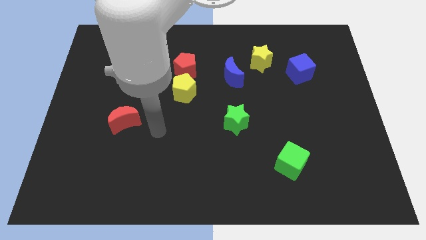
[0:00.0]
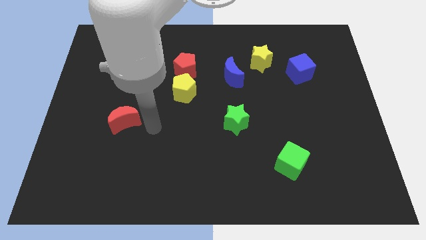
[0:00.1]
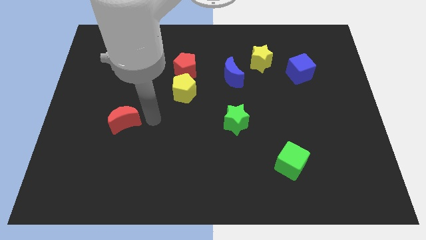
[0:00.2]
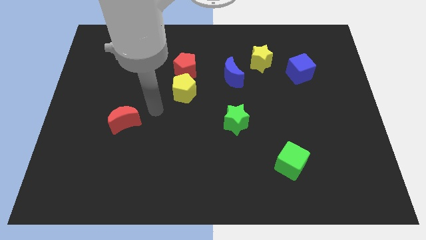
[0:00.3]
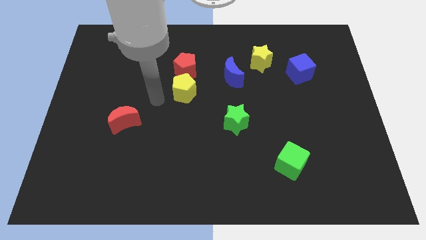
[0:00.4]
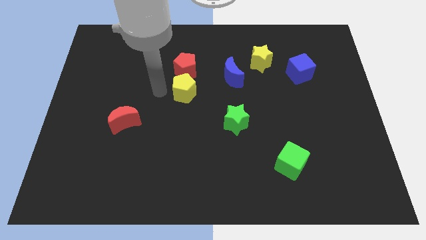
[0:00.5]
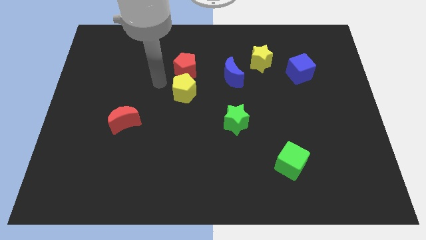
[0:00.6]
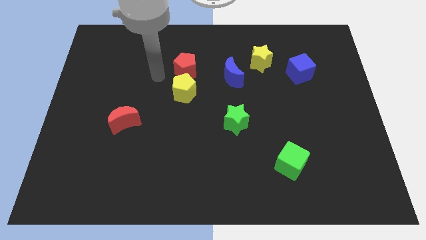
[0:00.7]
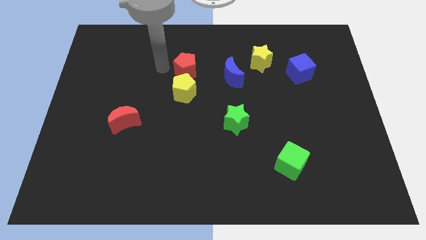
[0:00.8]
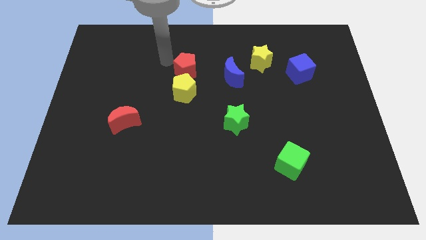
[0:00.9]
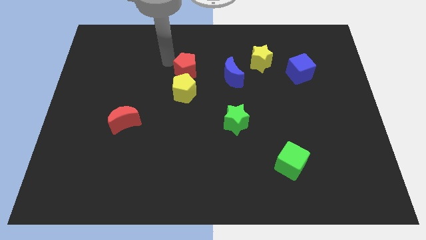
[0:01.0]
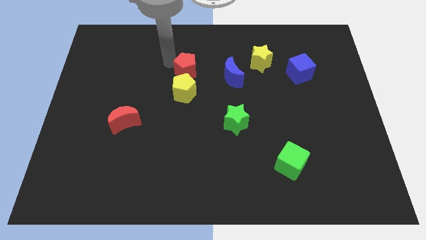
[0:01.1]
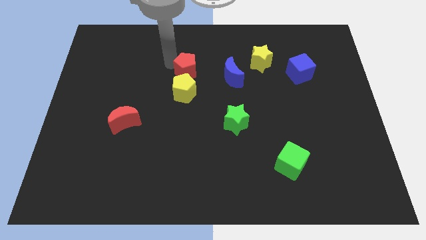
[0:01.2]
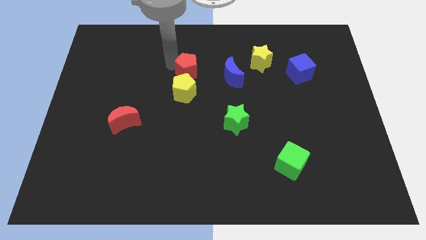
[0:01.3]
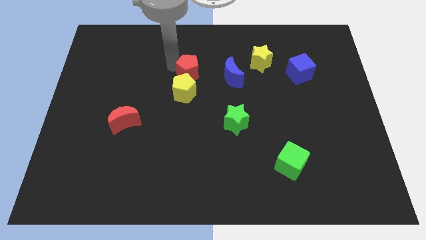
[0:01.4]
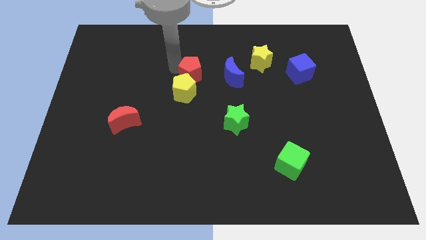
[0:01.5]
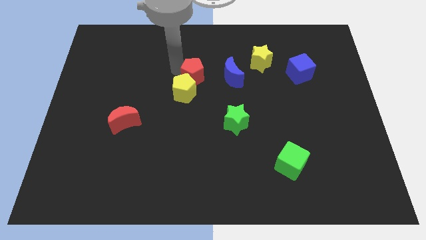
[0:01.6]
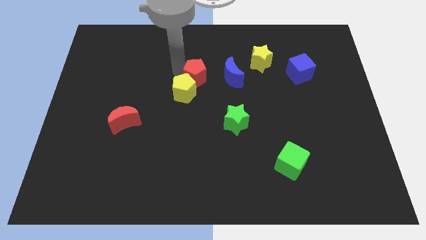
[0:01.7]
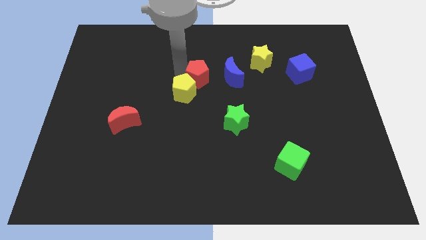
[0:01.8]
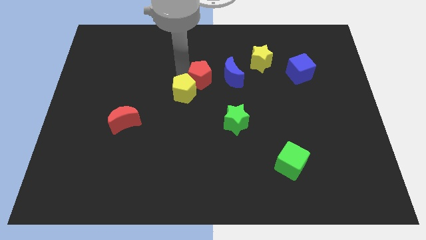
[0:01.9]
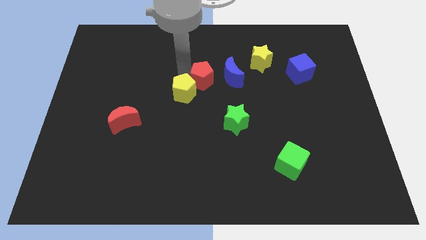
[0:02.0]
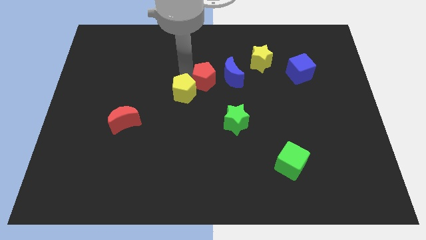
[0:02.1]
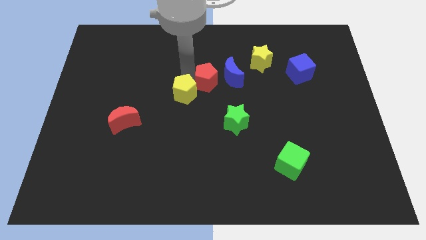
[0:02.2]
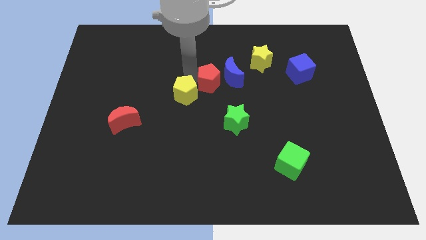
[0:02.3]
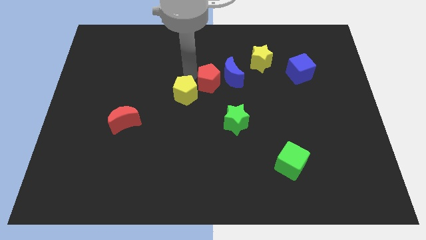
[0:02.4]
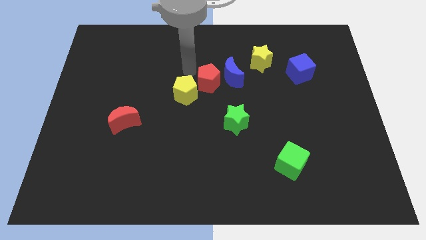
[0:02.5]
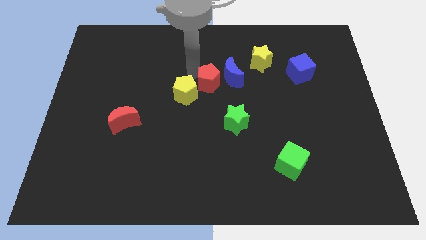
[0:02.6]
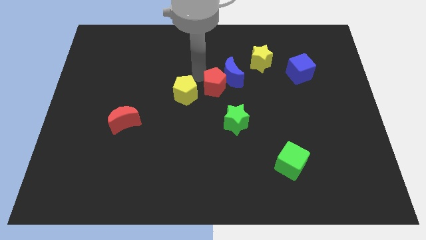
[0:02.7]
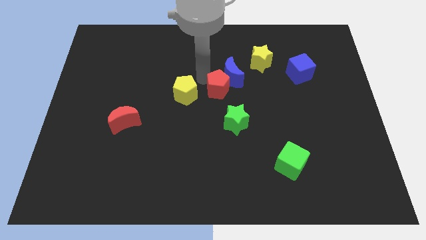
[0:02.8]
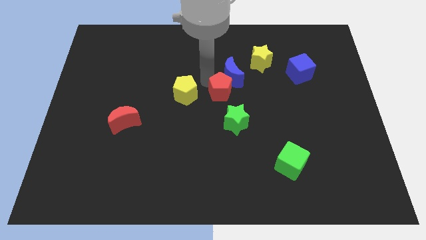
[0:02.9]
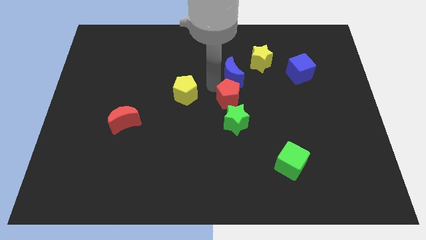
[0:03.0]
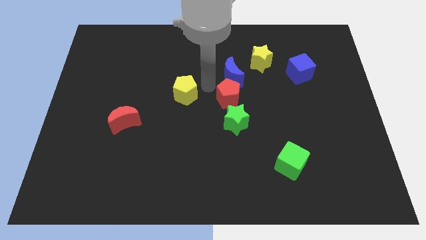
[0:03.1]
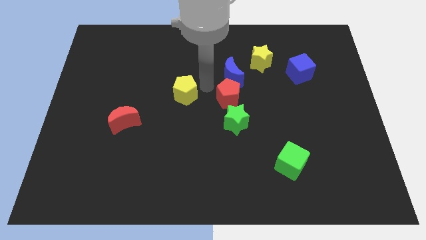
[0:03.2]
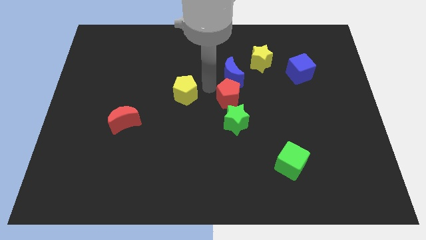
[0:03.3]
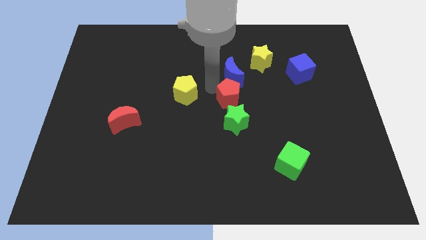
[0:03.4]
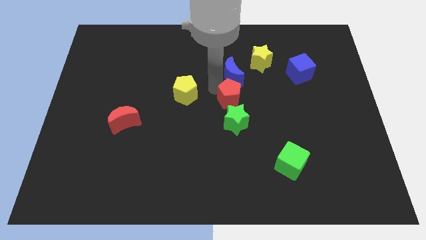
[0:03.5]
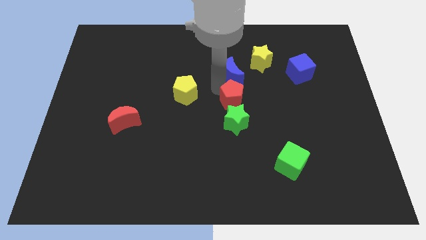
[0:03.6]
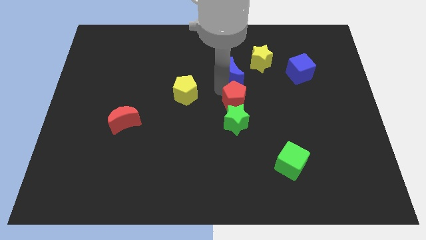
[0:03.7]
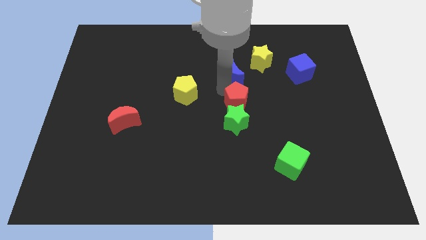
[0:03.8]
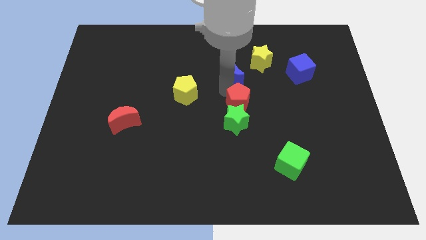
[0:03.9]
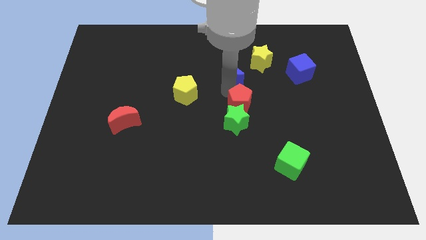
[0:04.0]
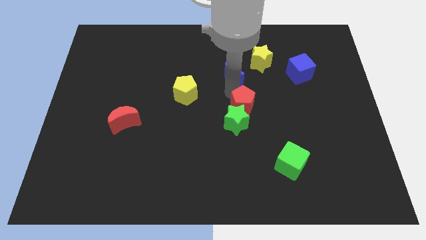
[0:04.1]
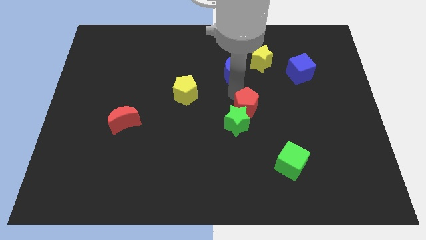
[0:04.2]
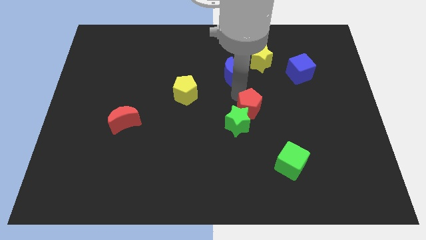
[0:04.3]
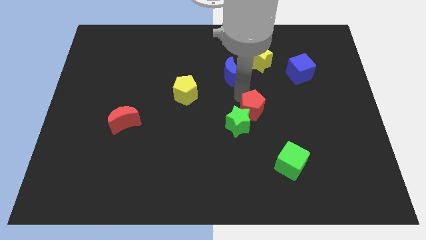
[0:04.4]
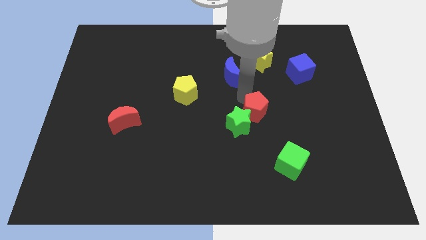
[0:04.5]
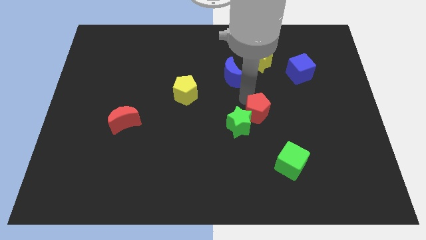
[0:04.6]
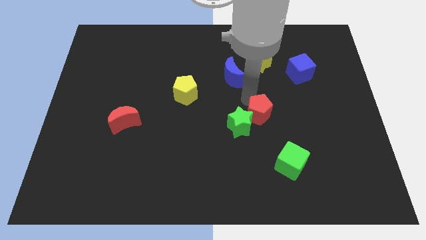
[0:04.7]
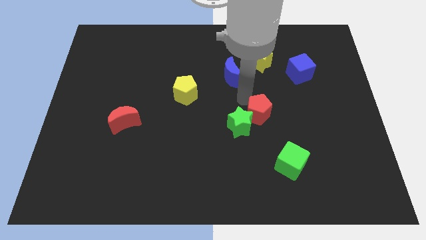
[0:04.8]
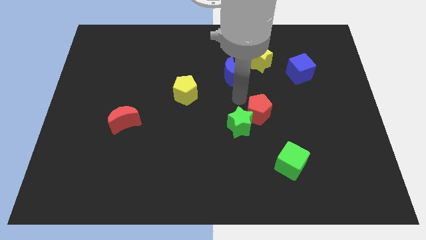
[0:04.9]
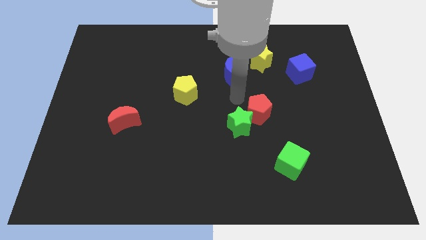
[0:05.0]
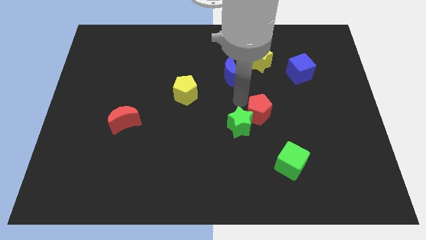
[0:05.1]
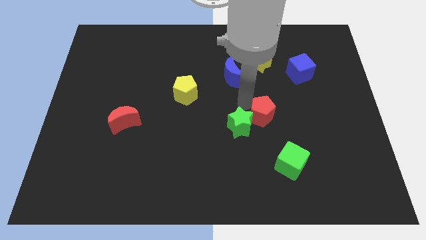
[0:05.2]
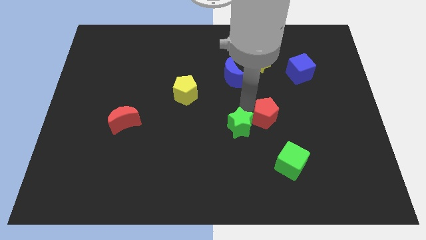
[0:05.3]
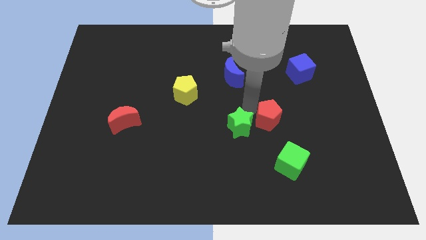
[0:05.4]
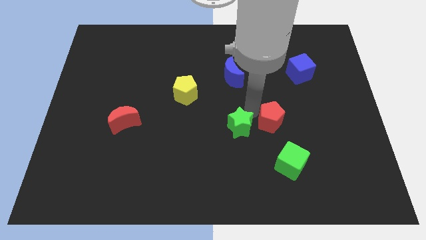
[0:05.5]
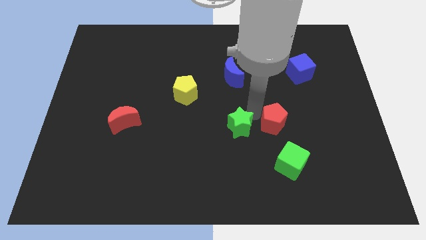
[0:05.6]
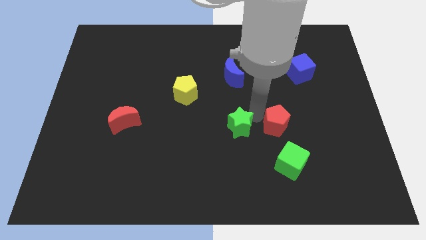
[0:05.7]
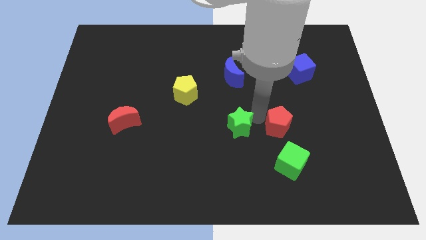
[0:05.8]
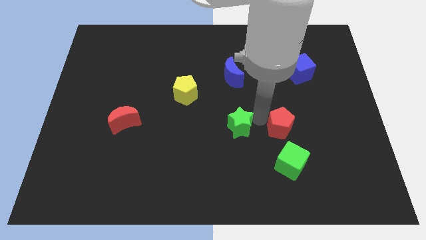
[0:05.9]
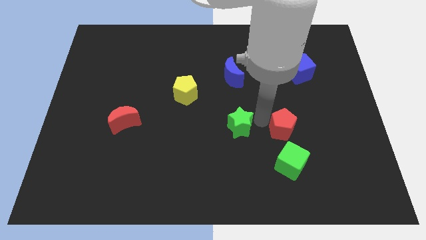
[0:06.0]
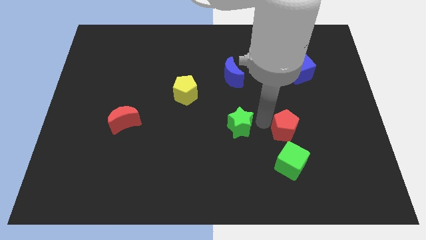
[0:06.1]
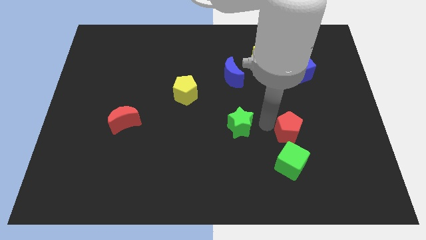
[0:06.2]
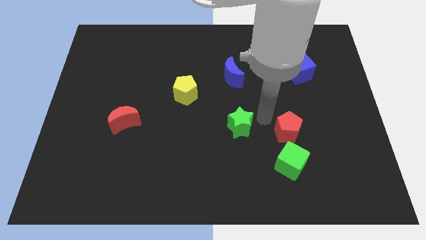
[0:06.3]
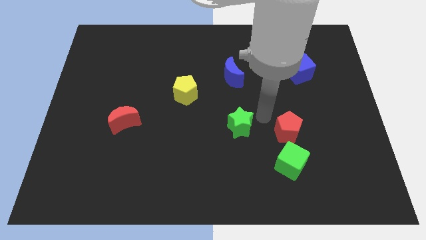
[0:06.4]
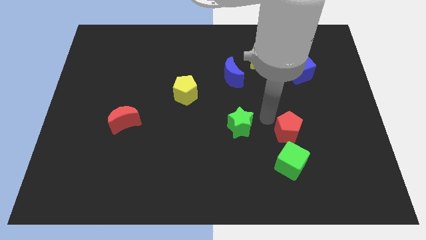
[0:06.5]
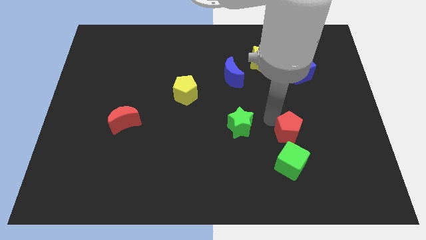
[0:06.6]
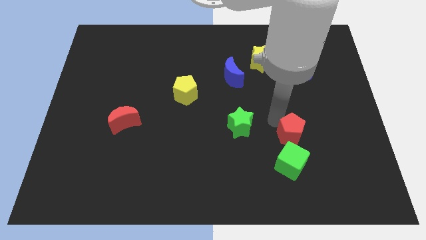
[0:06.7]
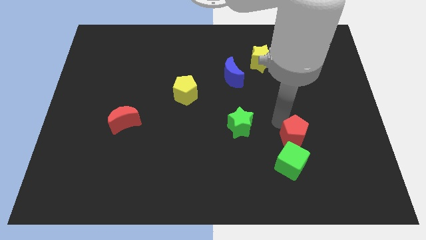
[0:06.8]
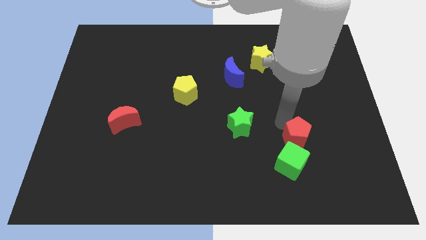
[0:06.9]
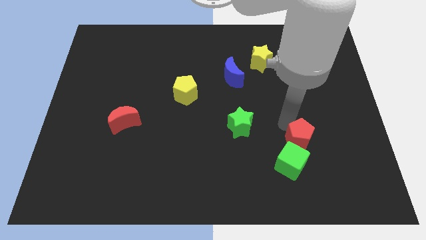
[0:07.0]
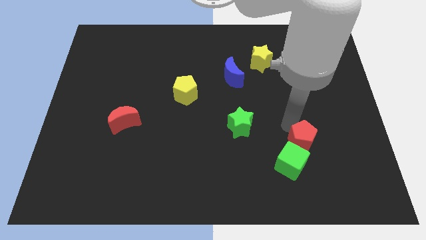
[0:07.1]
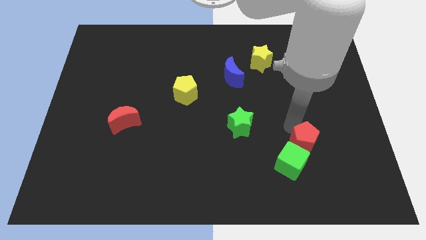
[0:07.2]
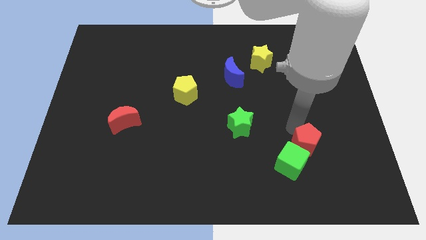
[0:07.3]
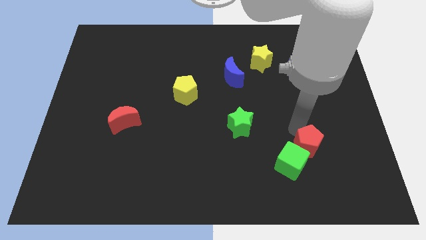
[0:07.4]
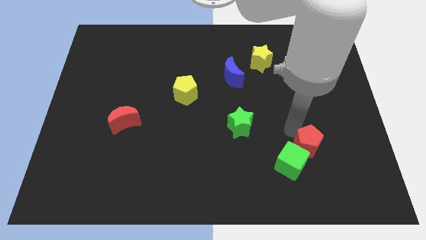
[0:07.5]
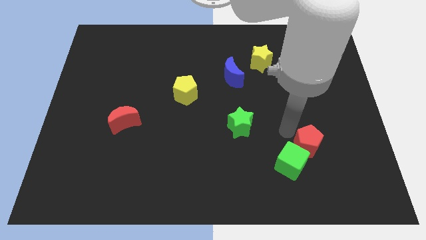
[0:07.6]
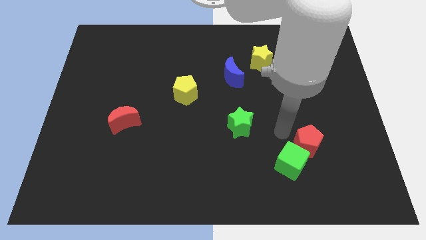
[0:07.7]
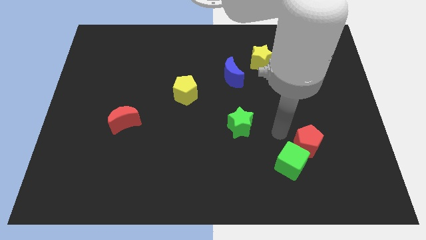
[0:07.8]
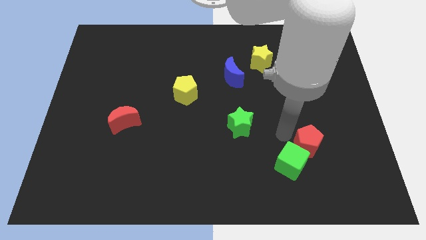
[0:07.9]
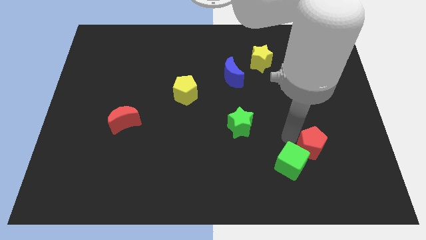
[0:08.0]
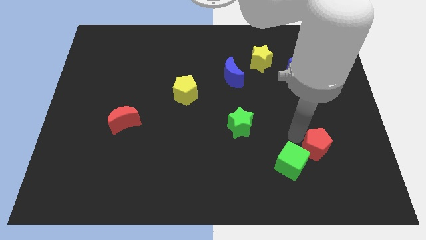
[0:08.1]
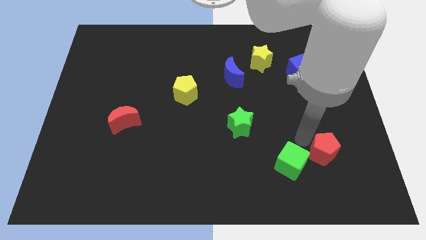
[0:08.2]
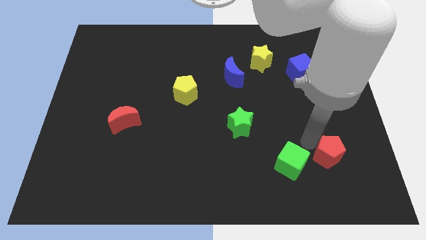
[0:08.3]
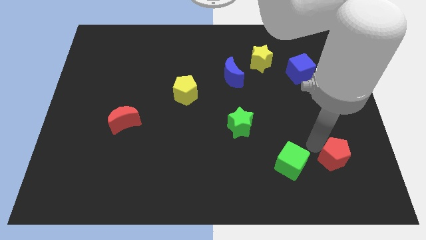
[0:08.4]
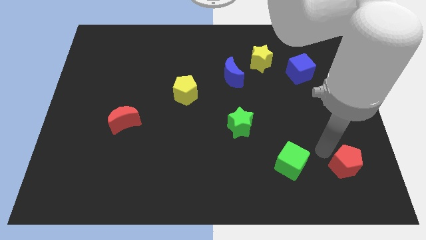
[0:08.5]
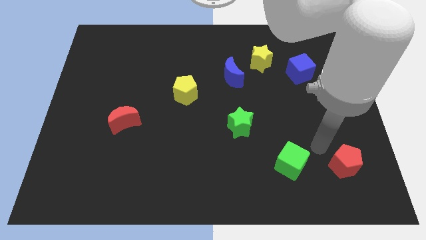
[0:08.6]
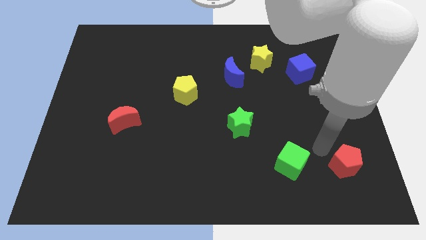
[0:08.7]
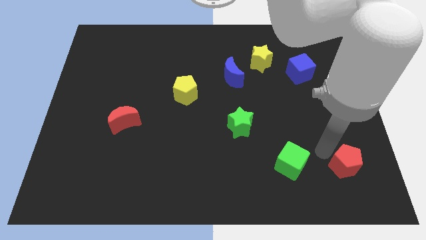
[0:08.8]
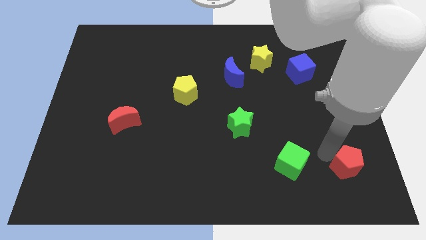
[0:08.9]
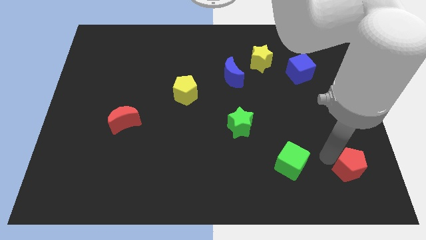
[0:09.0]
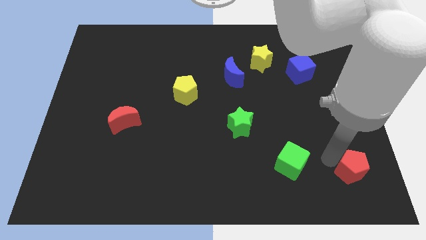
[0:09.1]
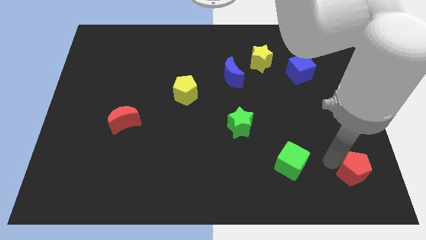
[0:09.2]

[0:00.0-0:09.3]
move the red pentagon to the lower right corner
